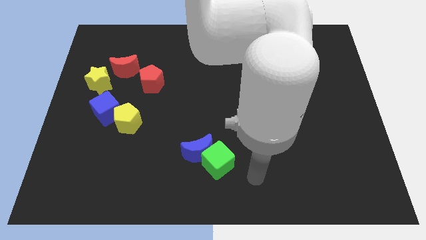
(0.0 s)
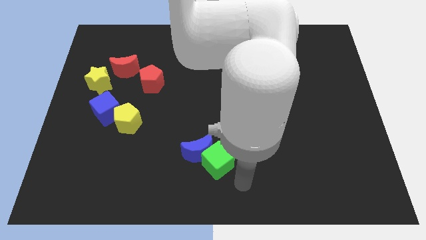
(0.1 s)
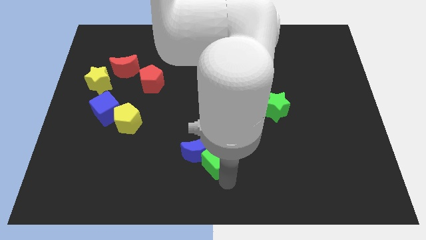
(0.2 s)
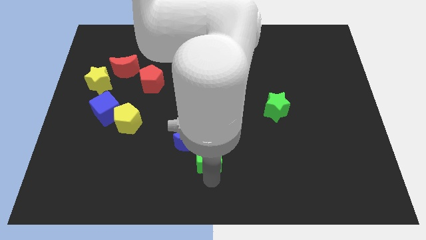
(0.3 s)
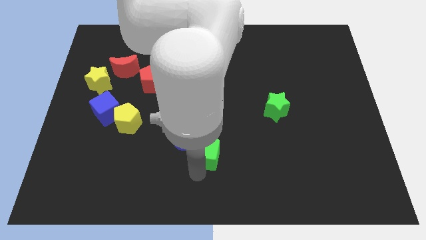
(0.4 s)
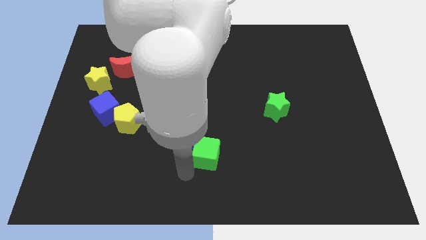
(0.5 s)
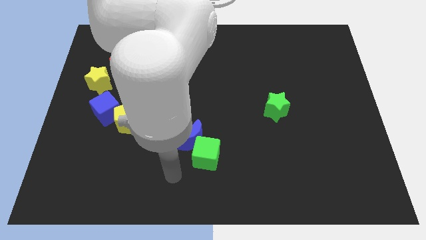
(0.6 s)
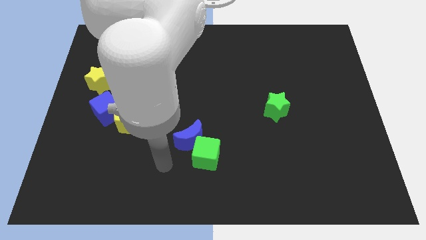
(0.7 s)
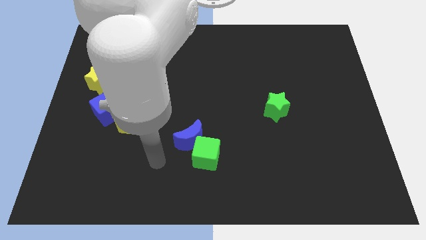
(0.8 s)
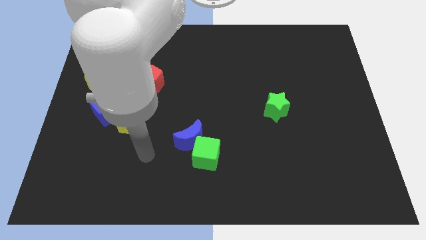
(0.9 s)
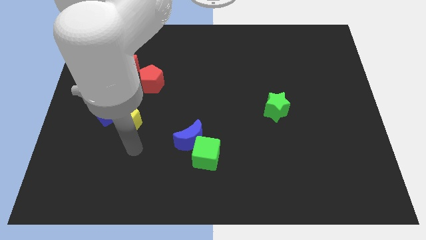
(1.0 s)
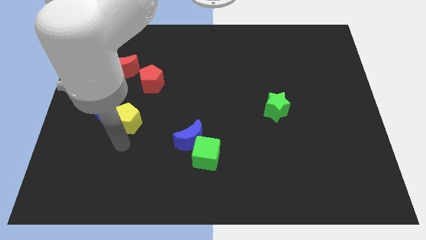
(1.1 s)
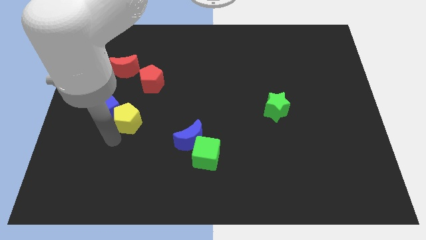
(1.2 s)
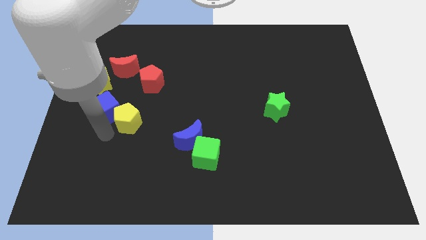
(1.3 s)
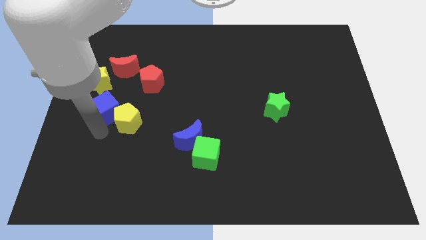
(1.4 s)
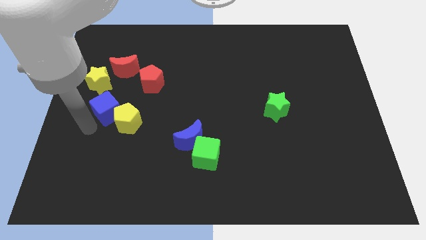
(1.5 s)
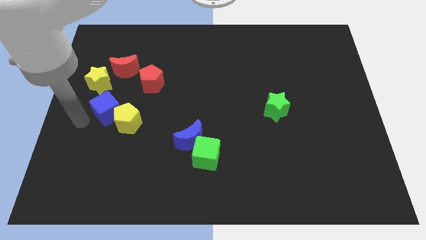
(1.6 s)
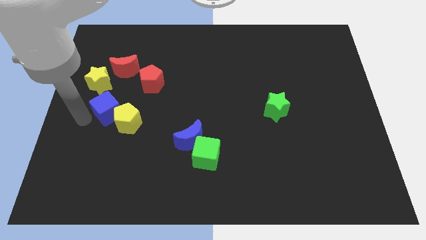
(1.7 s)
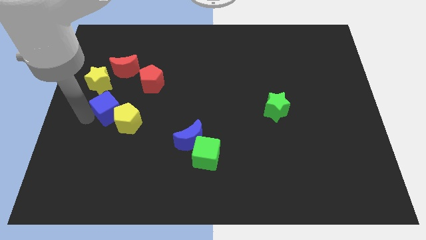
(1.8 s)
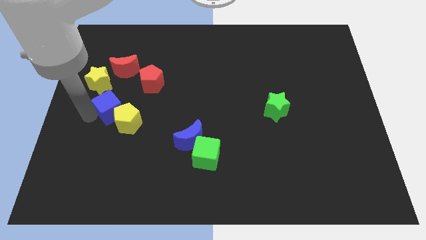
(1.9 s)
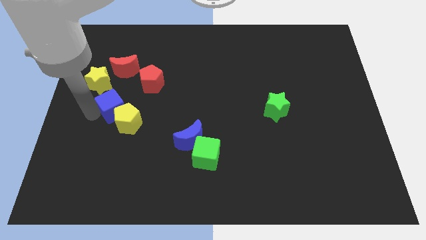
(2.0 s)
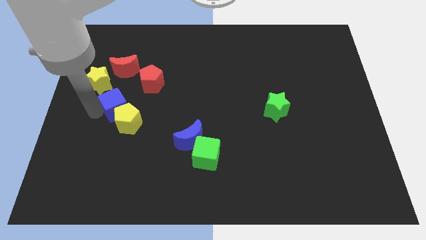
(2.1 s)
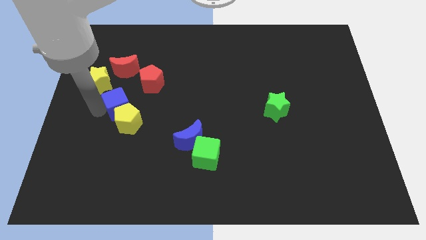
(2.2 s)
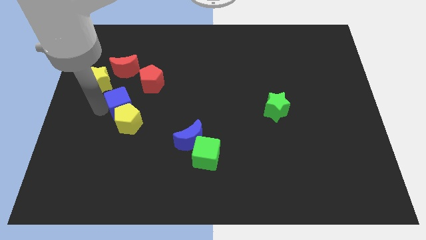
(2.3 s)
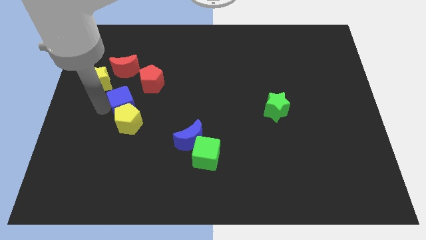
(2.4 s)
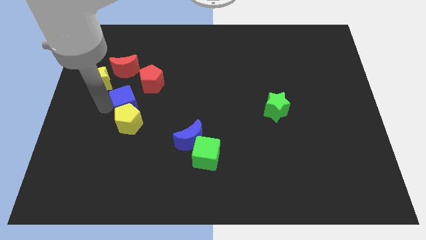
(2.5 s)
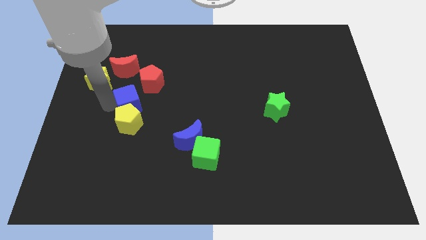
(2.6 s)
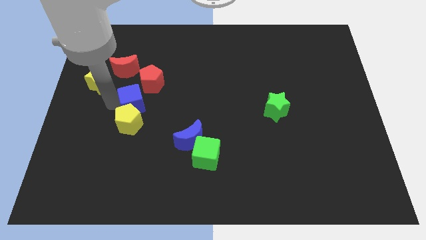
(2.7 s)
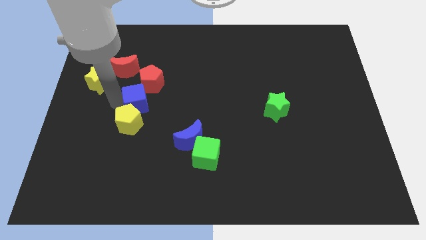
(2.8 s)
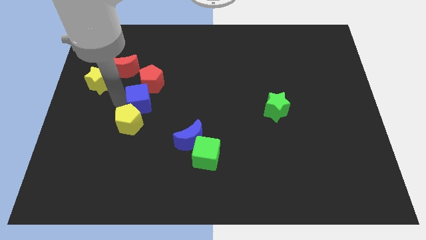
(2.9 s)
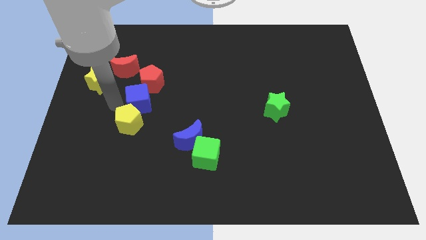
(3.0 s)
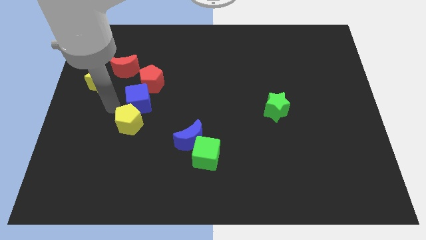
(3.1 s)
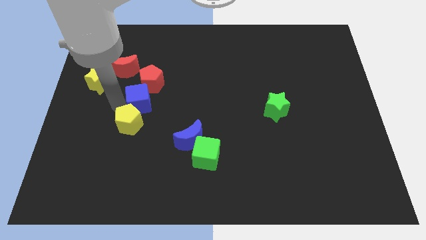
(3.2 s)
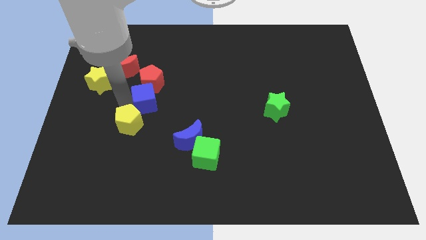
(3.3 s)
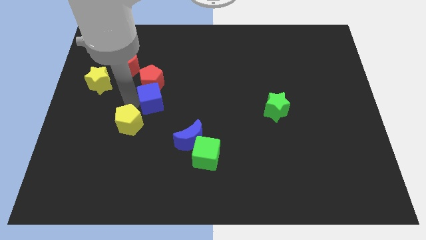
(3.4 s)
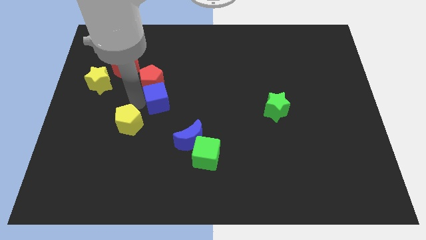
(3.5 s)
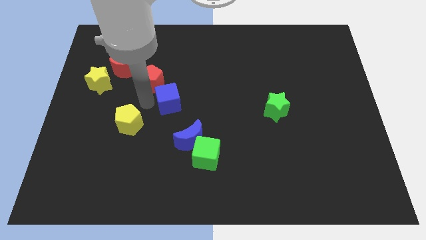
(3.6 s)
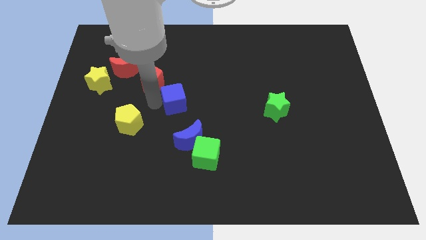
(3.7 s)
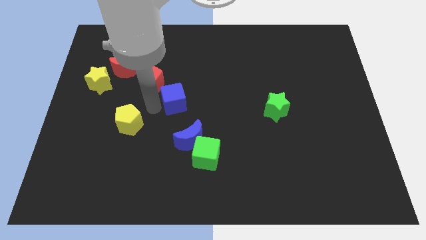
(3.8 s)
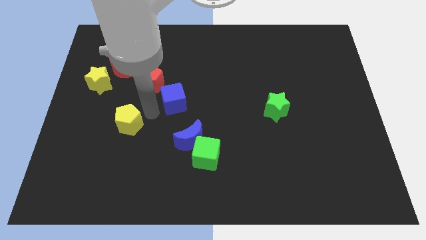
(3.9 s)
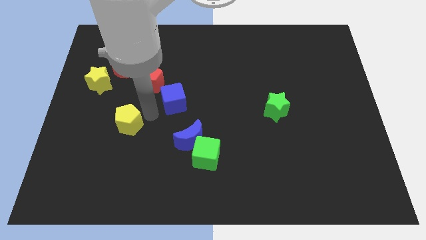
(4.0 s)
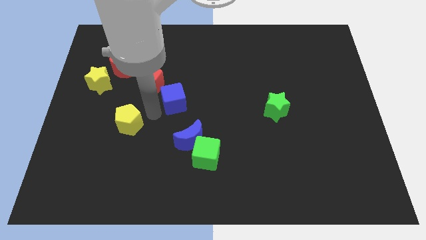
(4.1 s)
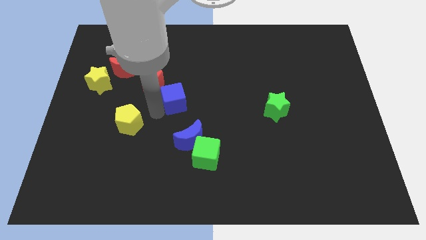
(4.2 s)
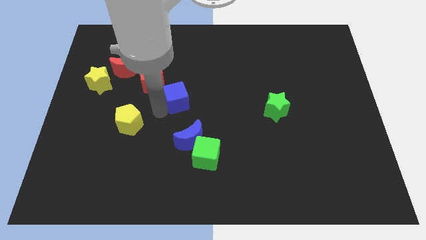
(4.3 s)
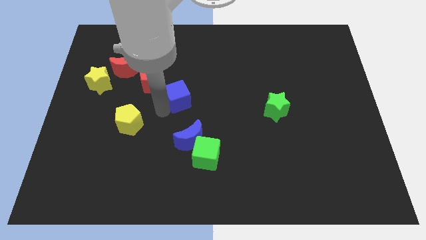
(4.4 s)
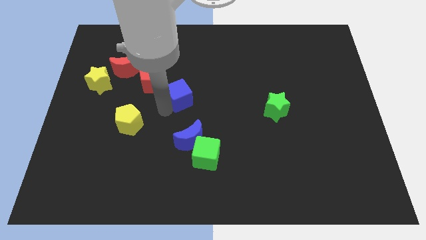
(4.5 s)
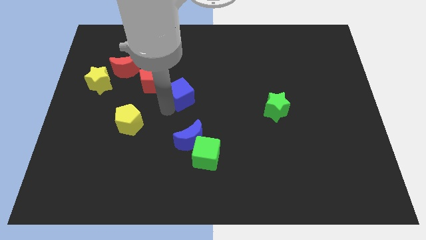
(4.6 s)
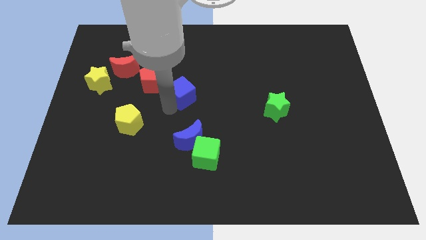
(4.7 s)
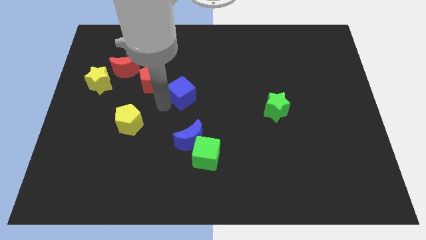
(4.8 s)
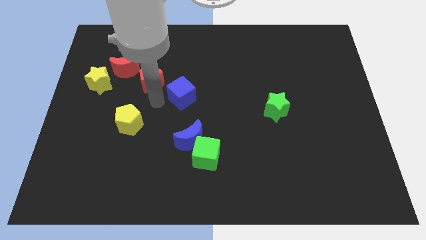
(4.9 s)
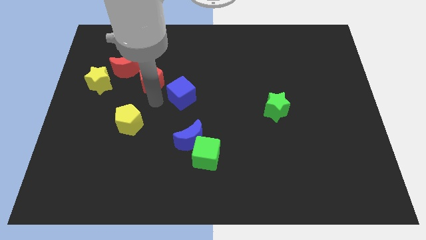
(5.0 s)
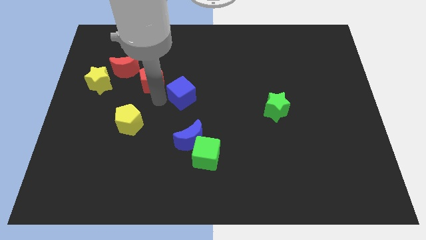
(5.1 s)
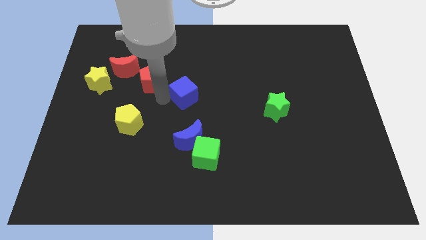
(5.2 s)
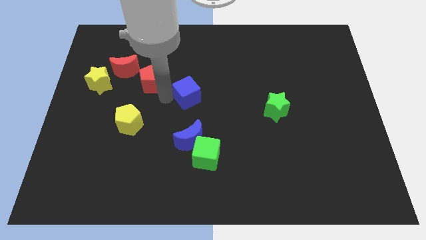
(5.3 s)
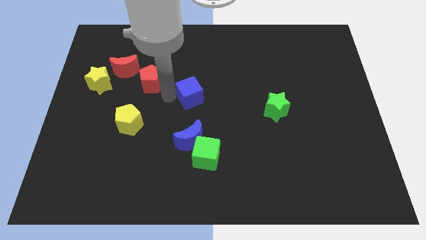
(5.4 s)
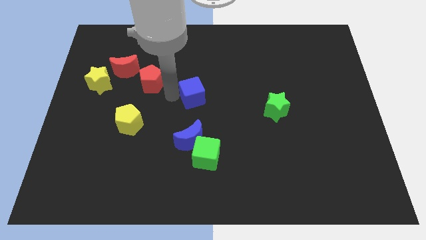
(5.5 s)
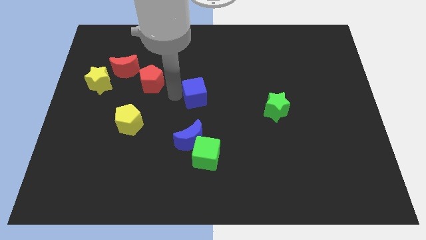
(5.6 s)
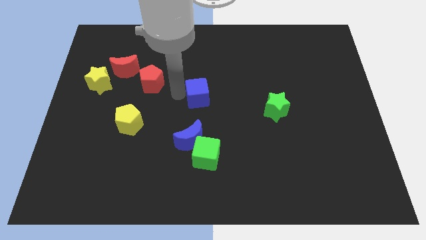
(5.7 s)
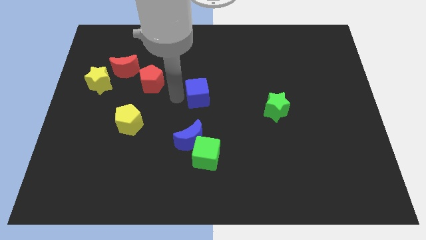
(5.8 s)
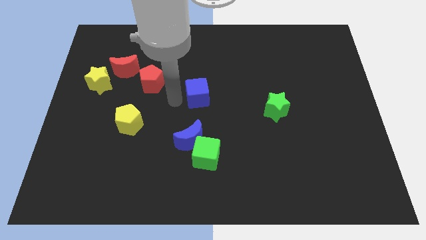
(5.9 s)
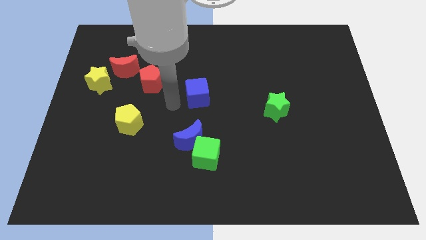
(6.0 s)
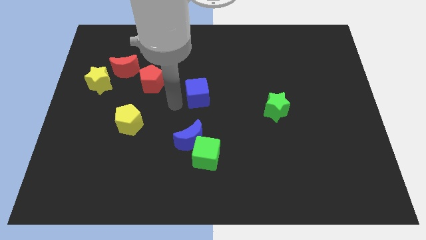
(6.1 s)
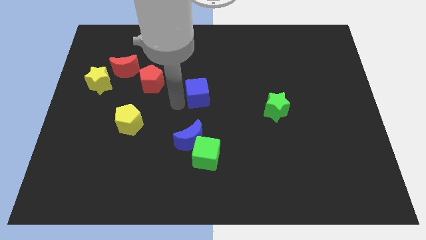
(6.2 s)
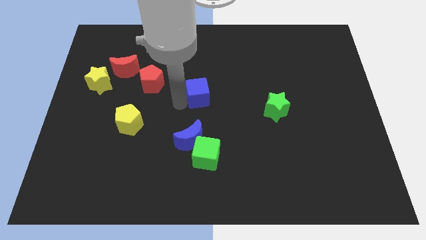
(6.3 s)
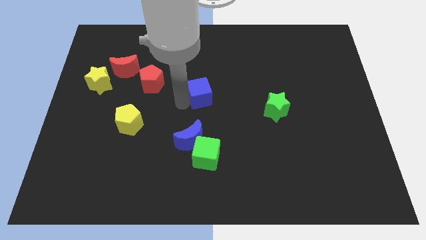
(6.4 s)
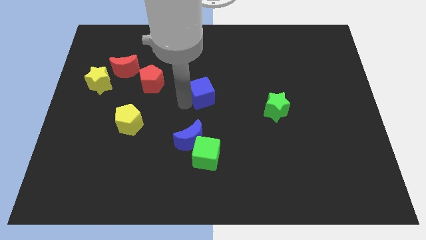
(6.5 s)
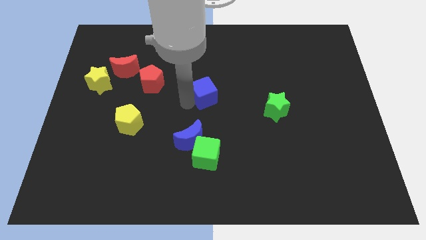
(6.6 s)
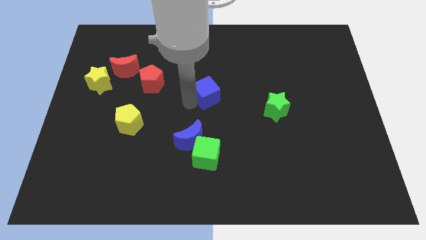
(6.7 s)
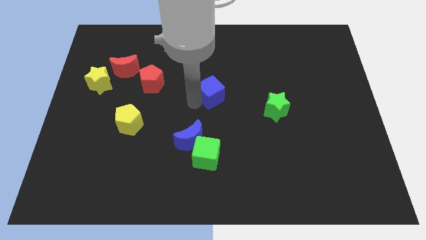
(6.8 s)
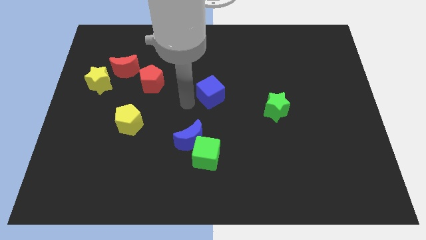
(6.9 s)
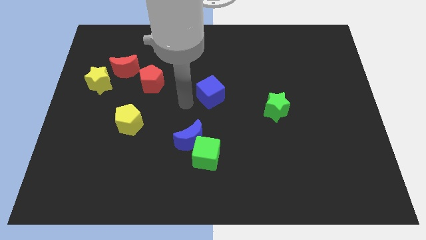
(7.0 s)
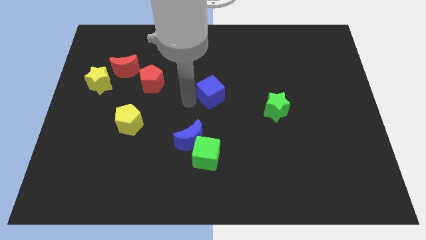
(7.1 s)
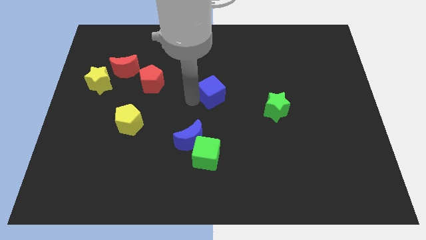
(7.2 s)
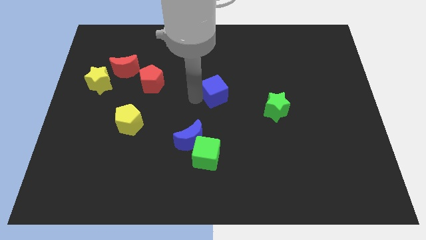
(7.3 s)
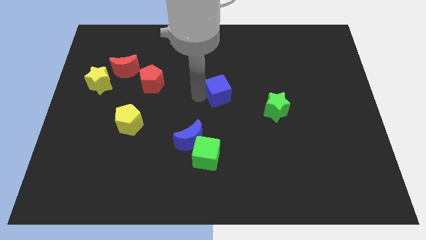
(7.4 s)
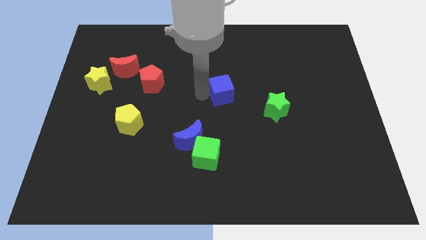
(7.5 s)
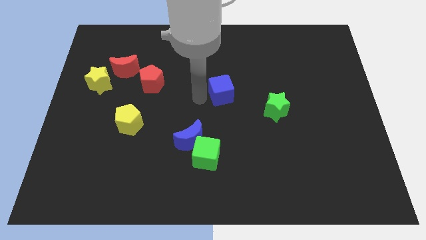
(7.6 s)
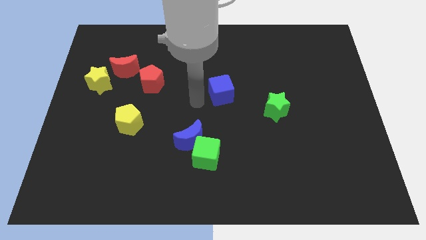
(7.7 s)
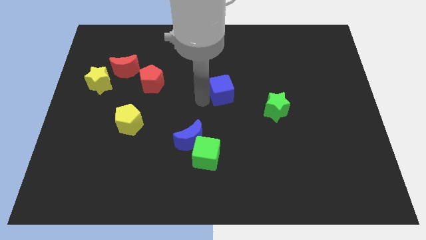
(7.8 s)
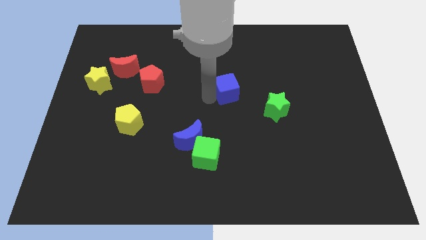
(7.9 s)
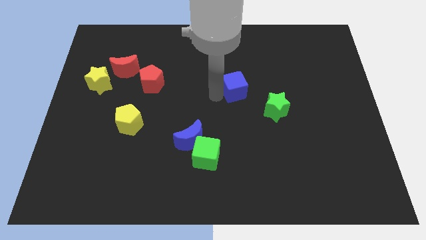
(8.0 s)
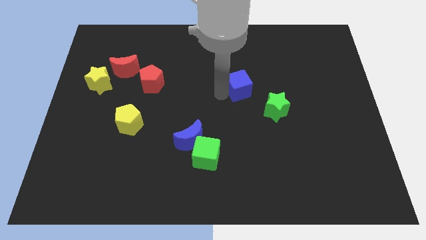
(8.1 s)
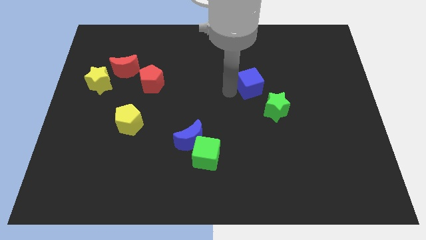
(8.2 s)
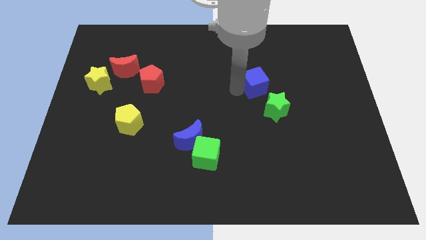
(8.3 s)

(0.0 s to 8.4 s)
put the blue cube above the green star
